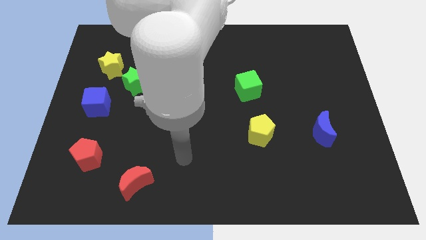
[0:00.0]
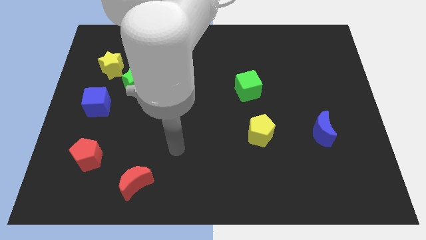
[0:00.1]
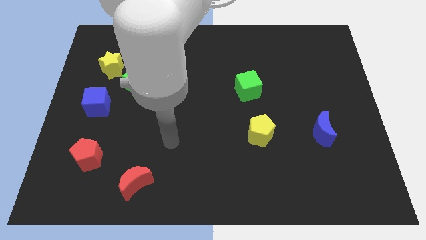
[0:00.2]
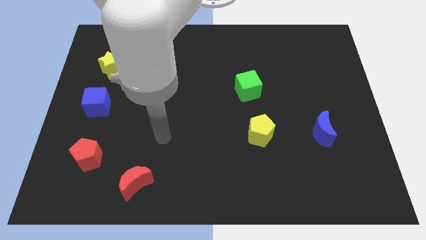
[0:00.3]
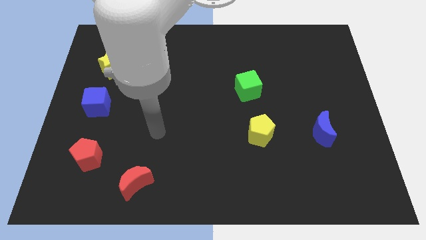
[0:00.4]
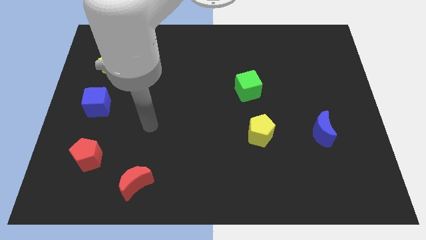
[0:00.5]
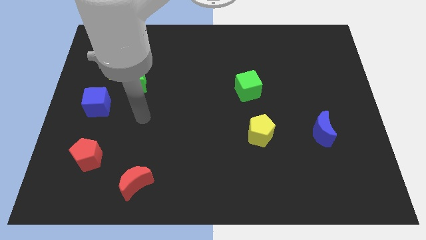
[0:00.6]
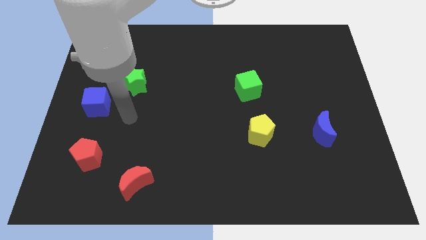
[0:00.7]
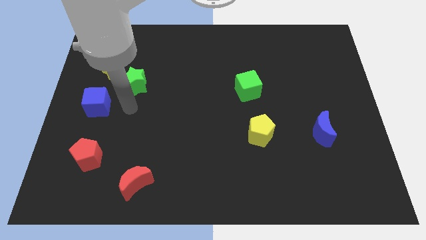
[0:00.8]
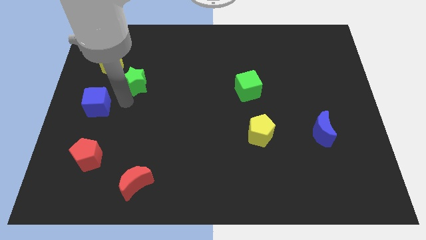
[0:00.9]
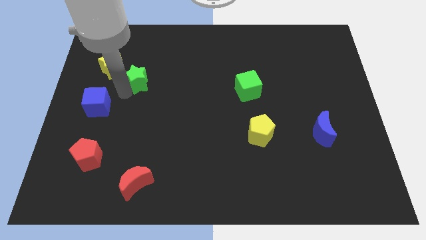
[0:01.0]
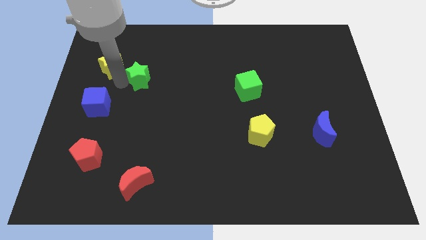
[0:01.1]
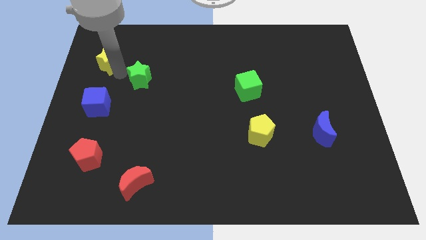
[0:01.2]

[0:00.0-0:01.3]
separate the green star from the yellow star

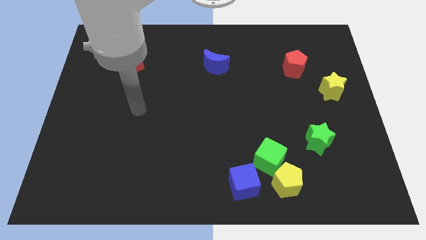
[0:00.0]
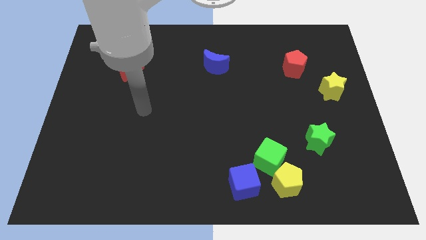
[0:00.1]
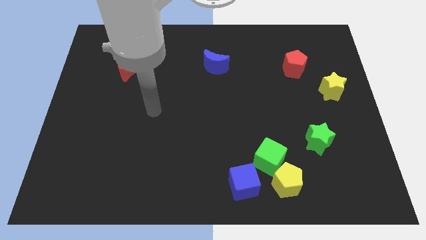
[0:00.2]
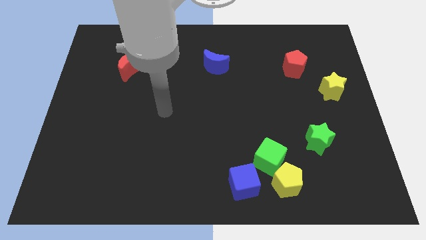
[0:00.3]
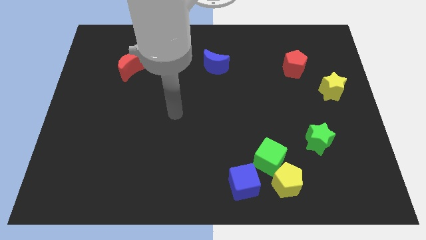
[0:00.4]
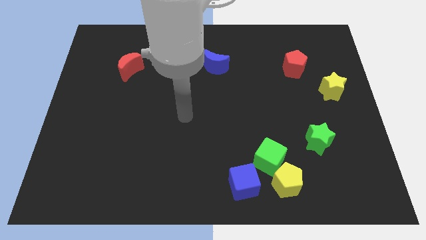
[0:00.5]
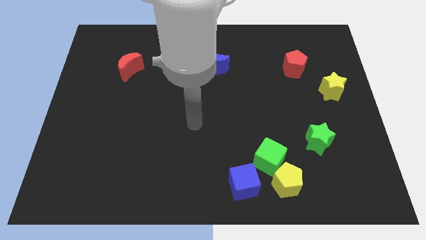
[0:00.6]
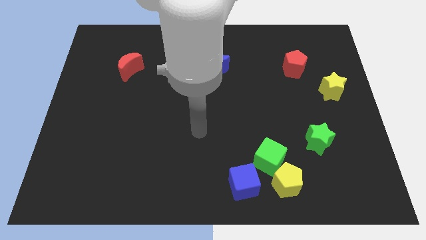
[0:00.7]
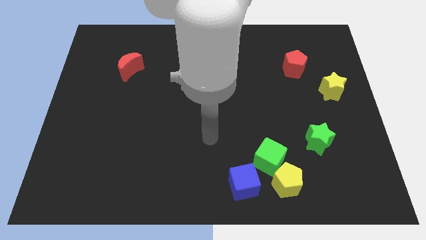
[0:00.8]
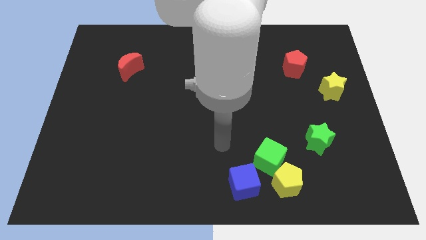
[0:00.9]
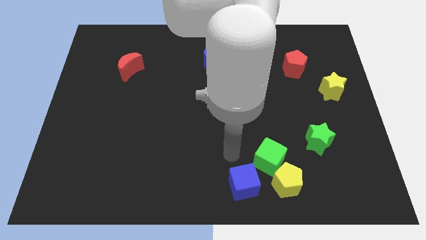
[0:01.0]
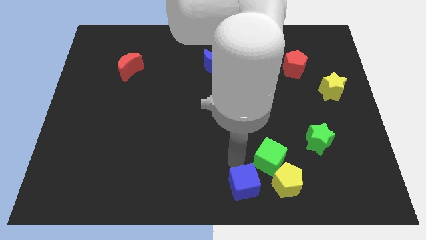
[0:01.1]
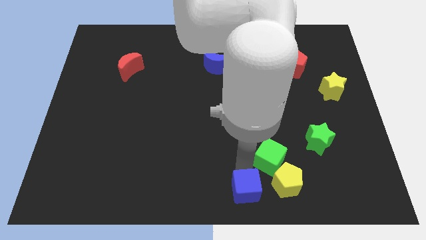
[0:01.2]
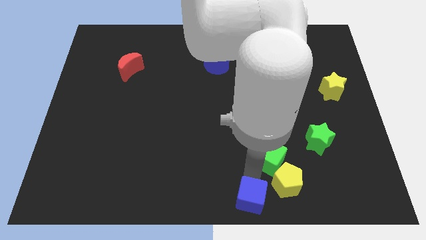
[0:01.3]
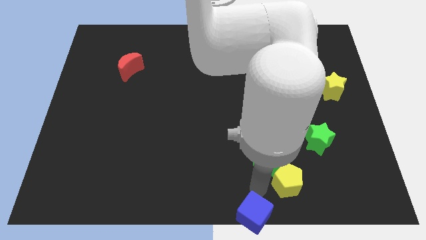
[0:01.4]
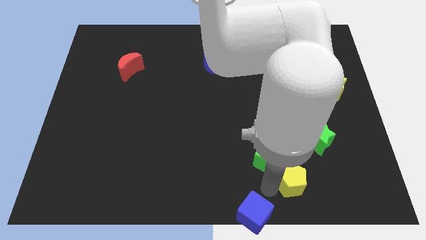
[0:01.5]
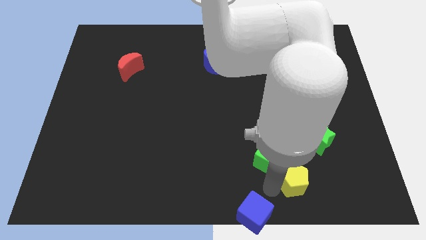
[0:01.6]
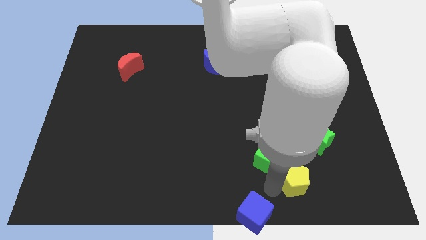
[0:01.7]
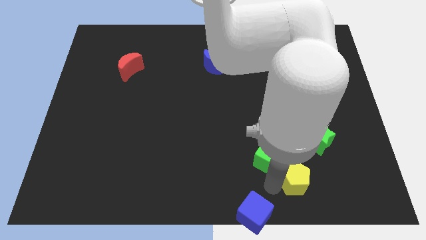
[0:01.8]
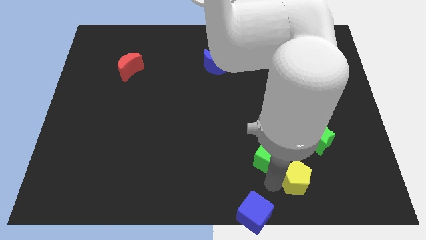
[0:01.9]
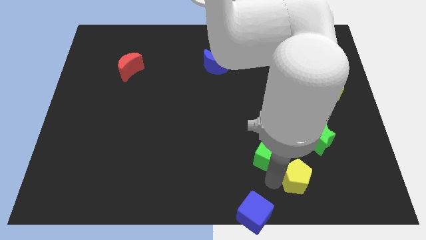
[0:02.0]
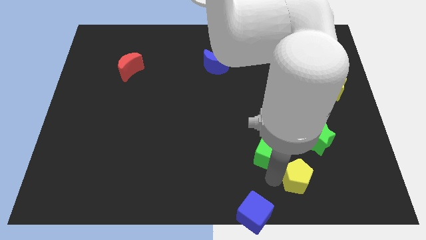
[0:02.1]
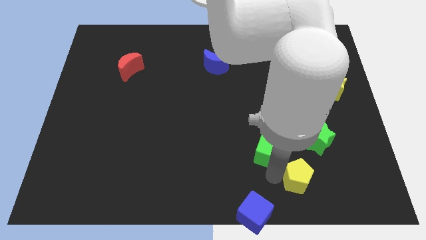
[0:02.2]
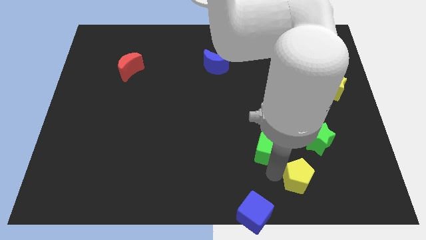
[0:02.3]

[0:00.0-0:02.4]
pull the green cube apart from the yellow pentagon and blue cube

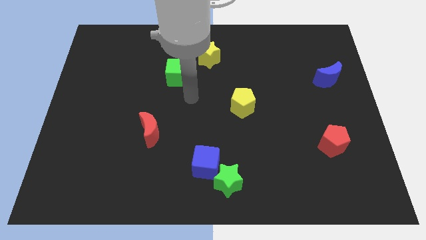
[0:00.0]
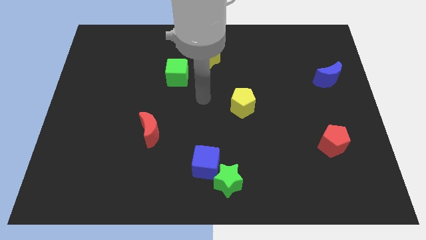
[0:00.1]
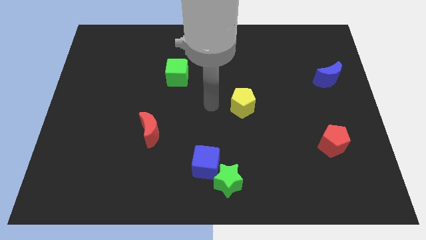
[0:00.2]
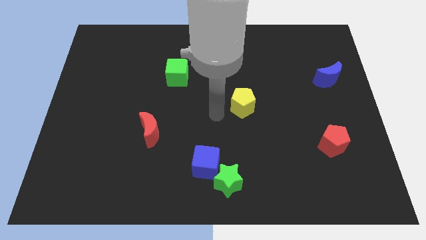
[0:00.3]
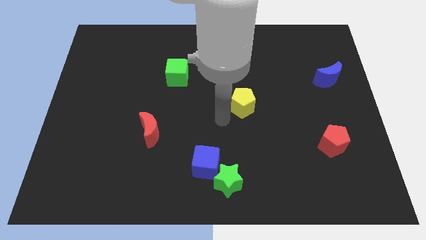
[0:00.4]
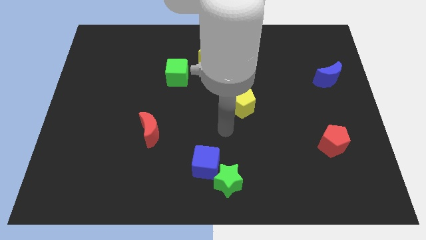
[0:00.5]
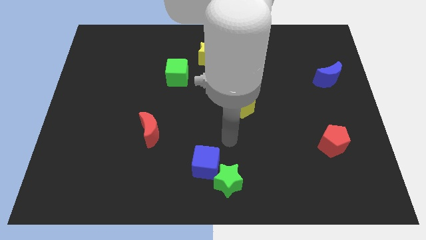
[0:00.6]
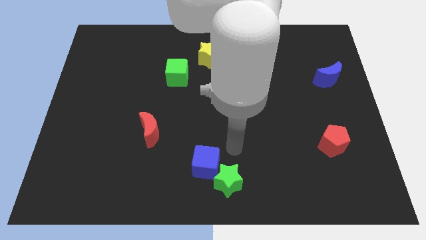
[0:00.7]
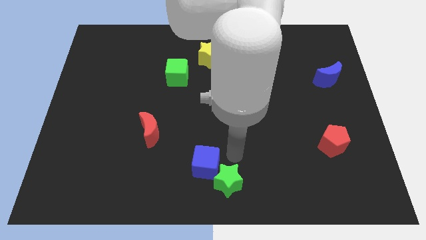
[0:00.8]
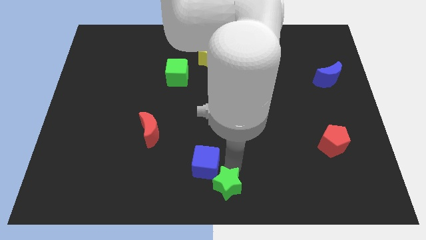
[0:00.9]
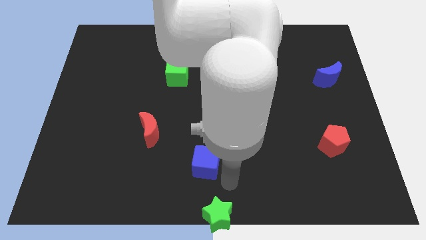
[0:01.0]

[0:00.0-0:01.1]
move the blue cube away from the green star
